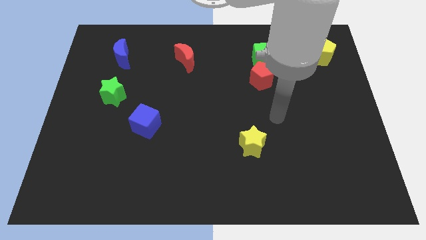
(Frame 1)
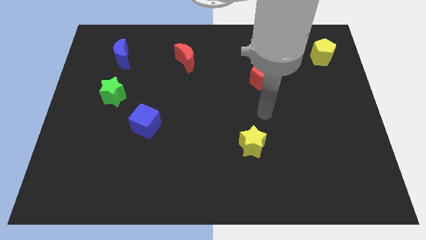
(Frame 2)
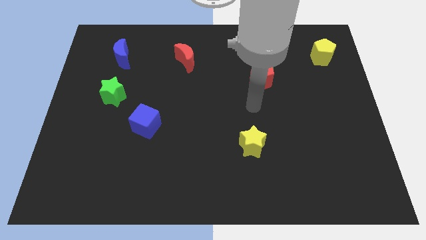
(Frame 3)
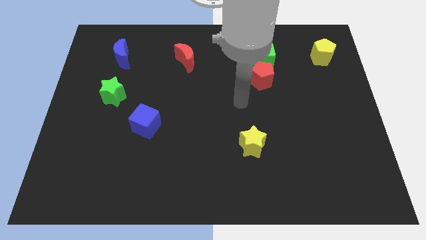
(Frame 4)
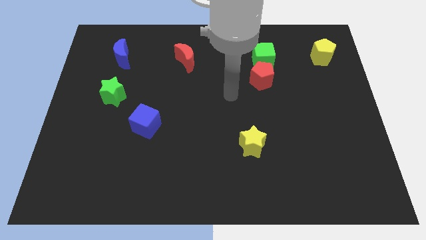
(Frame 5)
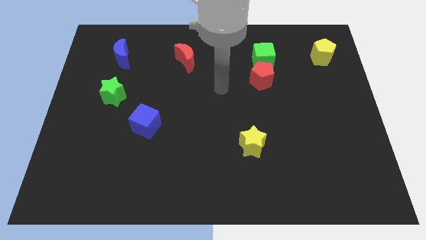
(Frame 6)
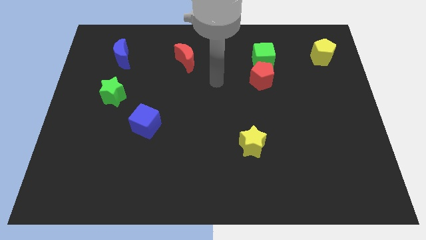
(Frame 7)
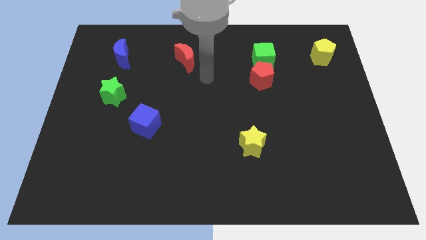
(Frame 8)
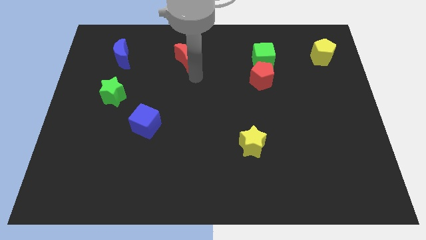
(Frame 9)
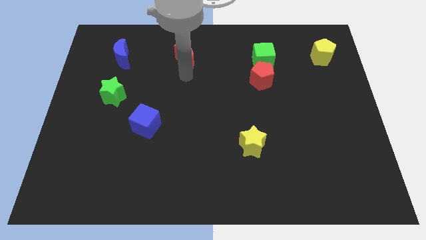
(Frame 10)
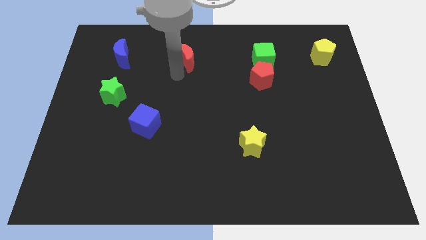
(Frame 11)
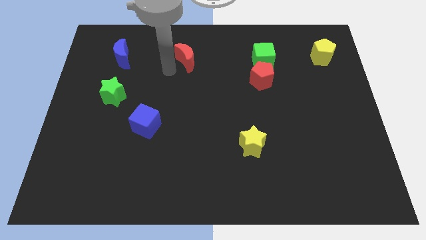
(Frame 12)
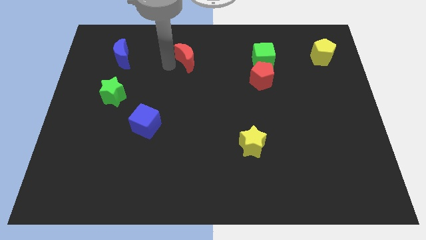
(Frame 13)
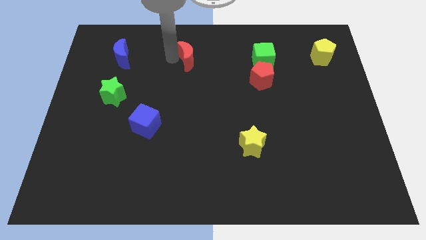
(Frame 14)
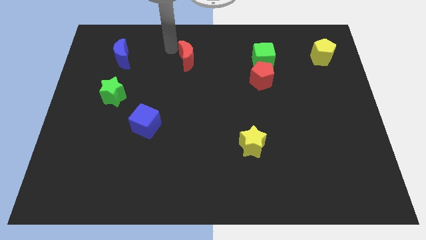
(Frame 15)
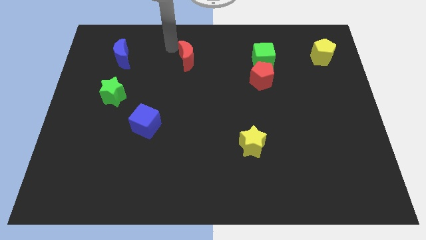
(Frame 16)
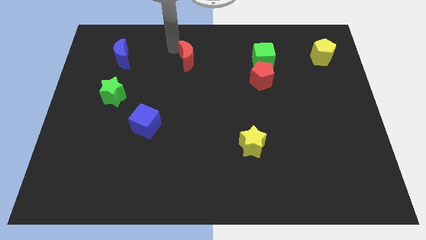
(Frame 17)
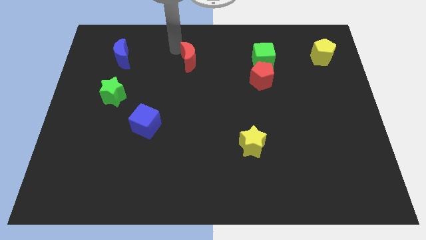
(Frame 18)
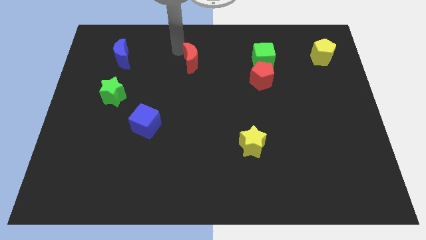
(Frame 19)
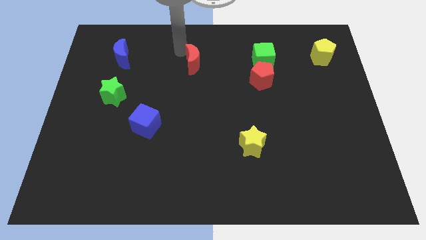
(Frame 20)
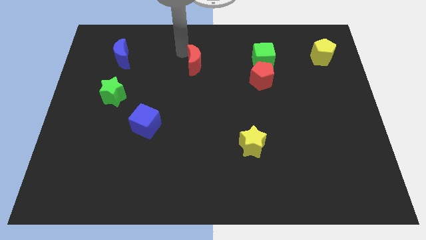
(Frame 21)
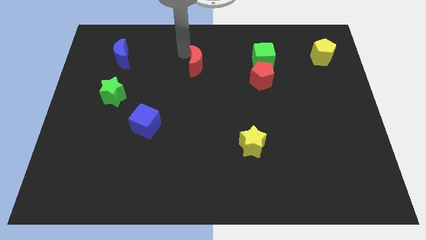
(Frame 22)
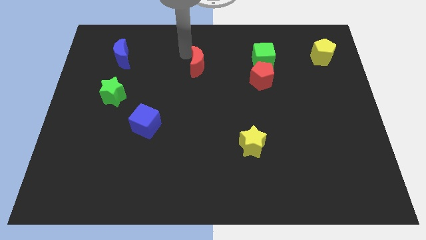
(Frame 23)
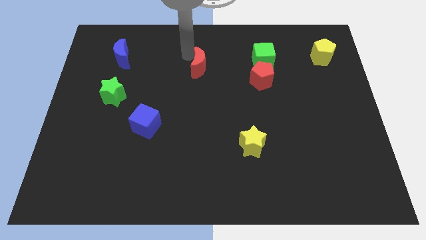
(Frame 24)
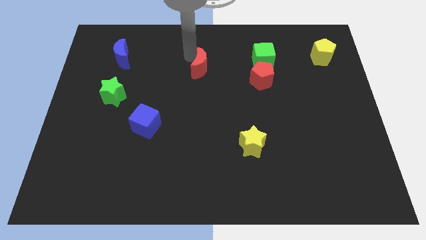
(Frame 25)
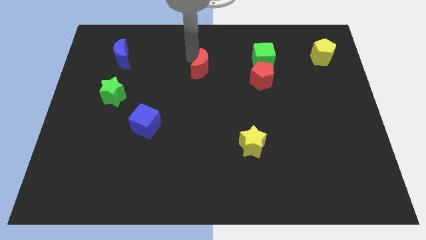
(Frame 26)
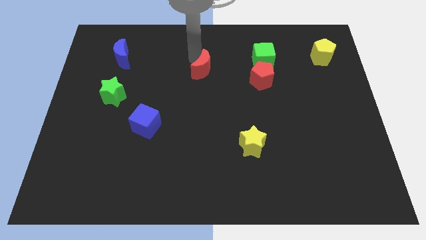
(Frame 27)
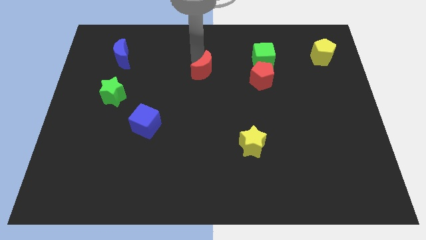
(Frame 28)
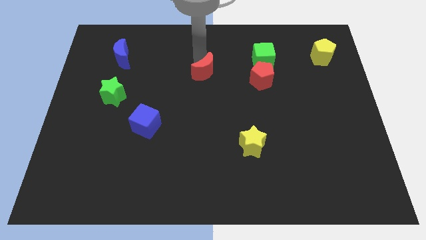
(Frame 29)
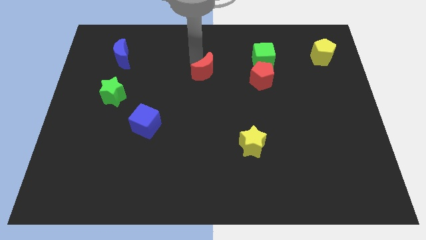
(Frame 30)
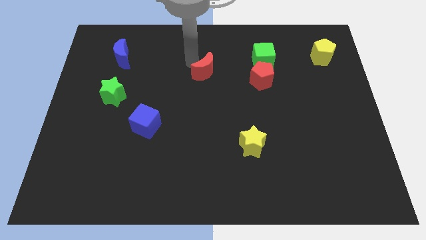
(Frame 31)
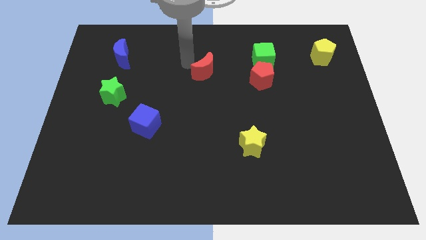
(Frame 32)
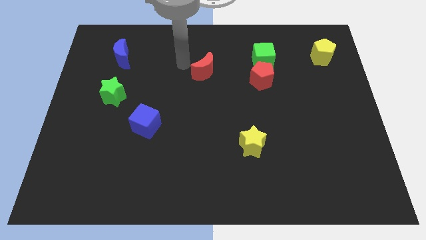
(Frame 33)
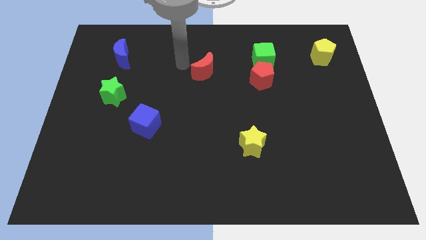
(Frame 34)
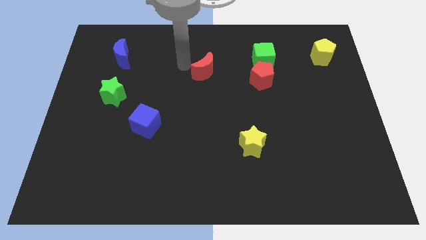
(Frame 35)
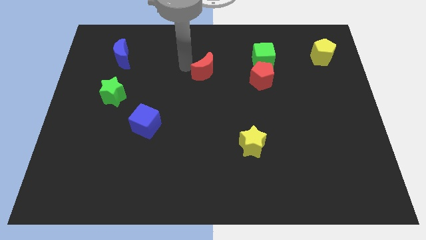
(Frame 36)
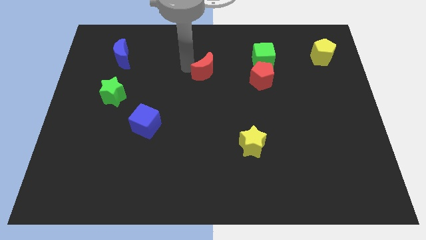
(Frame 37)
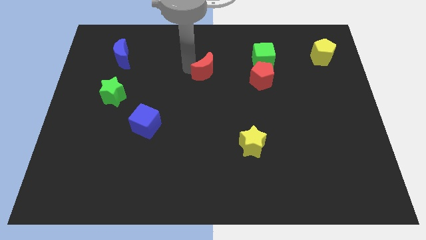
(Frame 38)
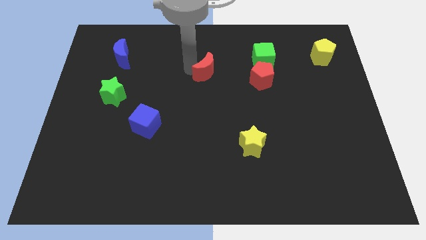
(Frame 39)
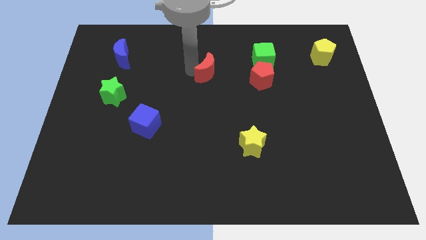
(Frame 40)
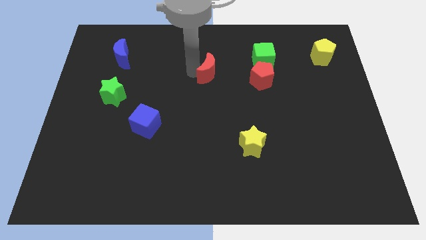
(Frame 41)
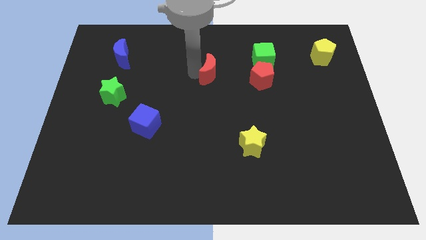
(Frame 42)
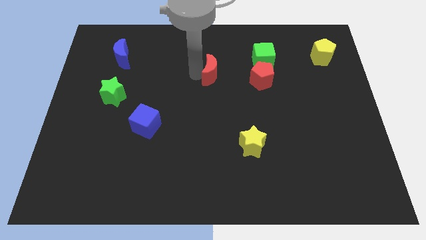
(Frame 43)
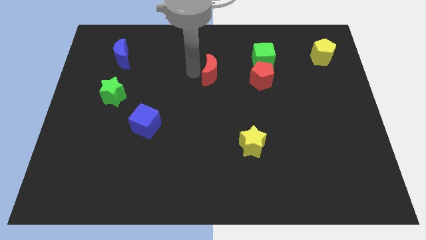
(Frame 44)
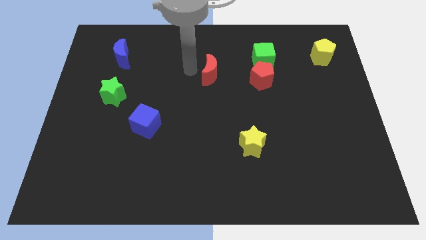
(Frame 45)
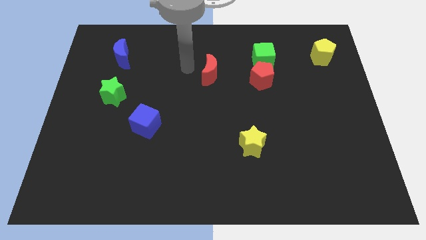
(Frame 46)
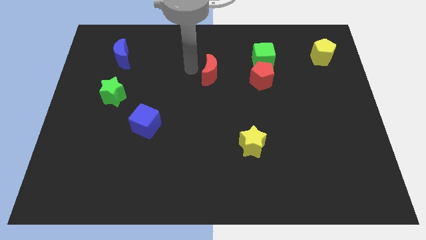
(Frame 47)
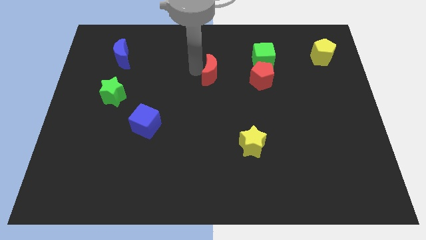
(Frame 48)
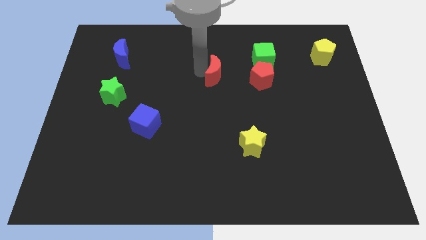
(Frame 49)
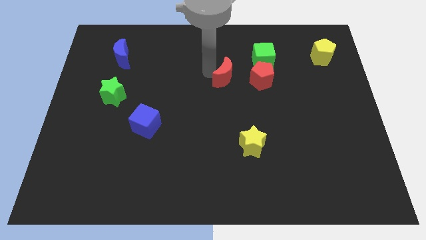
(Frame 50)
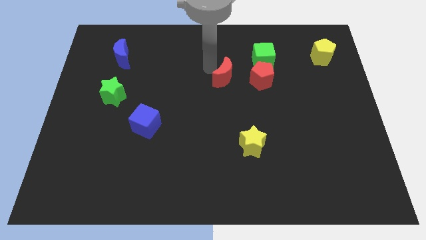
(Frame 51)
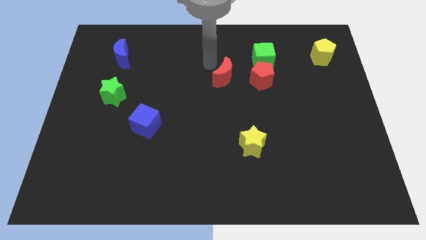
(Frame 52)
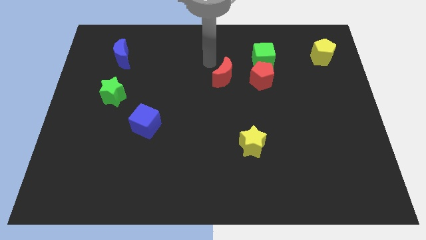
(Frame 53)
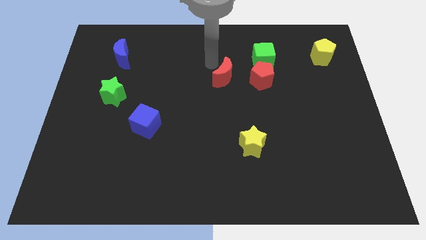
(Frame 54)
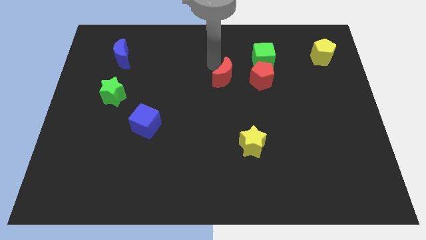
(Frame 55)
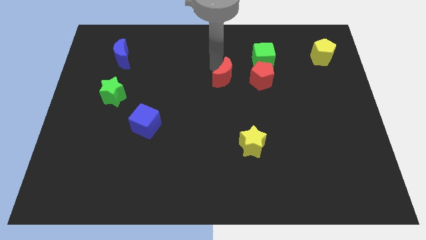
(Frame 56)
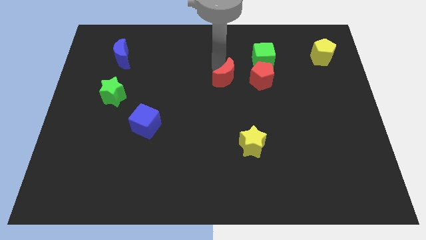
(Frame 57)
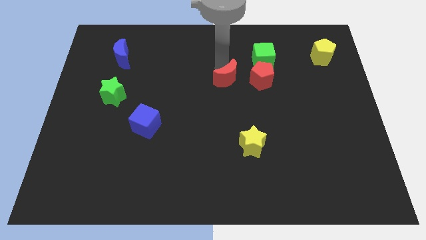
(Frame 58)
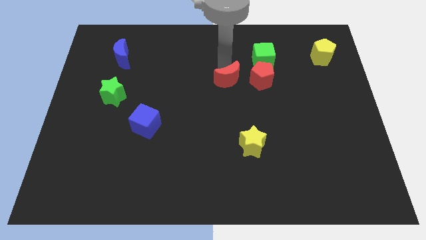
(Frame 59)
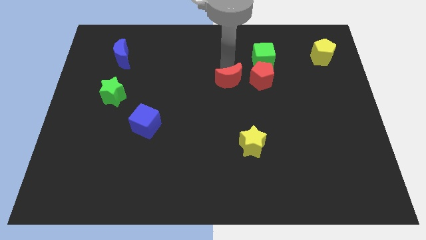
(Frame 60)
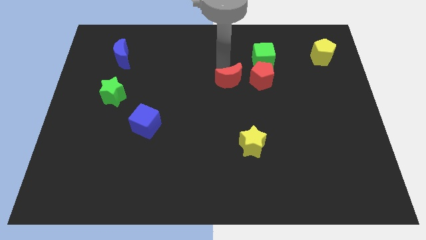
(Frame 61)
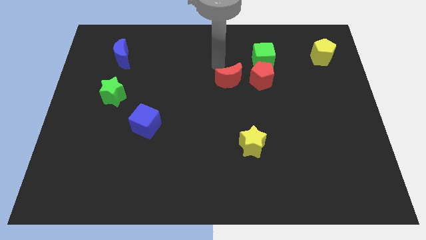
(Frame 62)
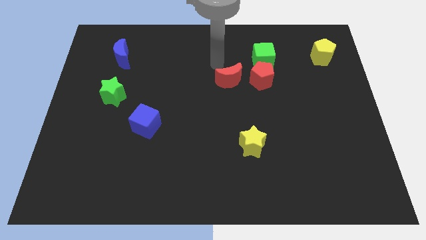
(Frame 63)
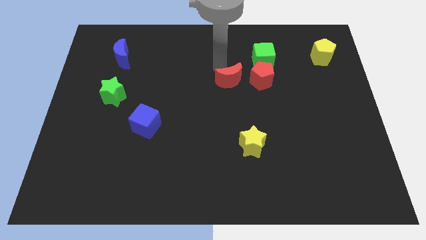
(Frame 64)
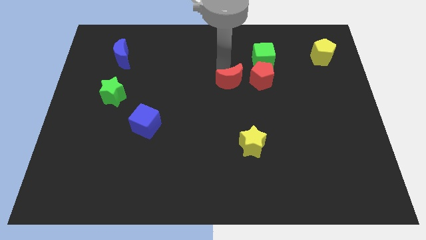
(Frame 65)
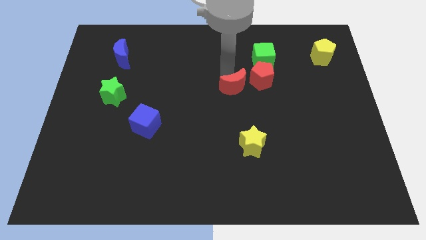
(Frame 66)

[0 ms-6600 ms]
push the red moon to the bottom left of the red pentagon

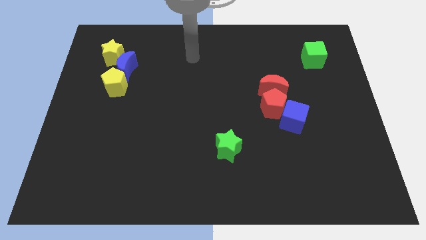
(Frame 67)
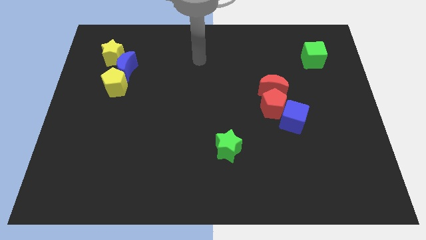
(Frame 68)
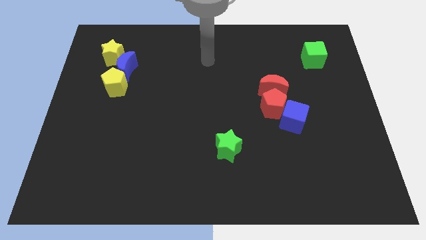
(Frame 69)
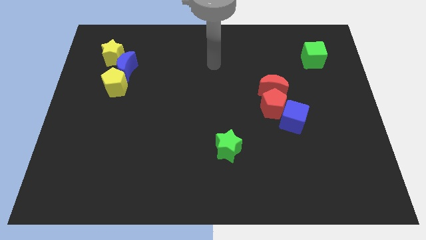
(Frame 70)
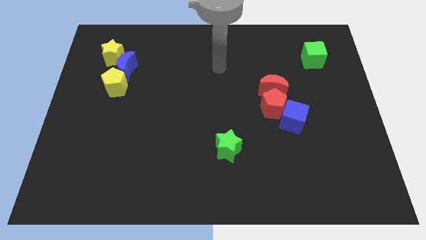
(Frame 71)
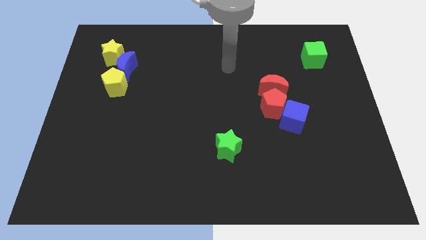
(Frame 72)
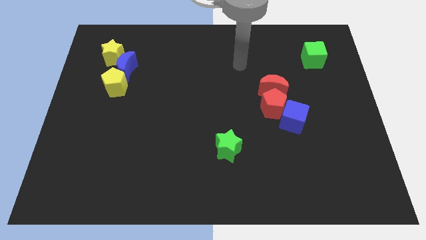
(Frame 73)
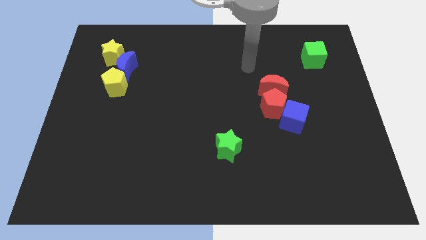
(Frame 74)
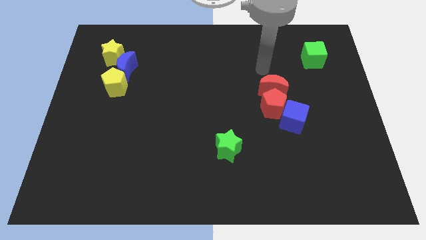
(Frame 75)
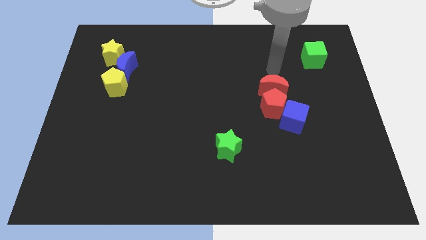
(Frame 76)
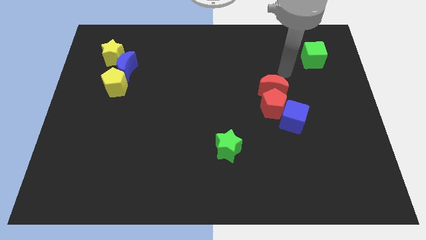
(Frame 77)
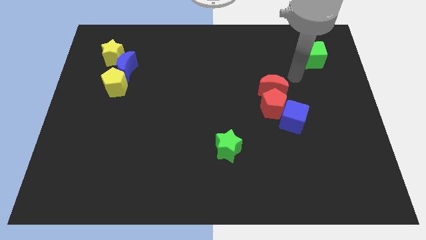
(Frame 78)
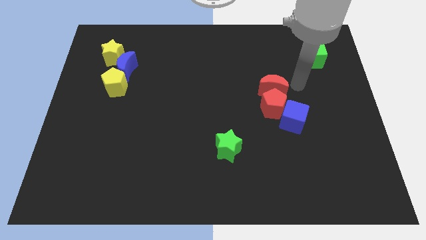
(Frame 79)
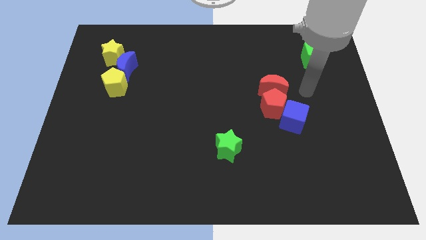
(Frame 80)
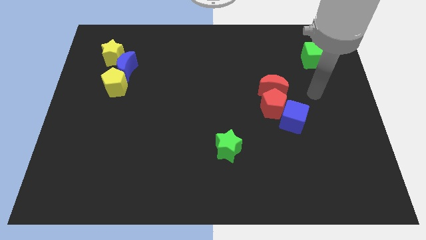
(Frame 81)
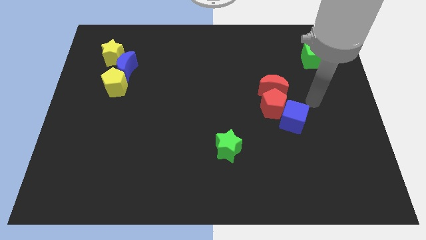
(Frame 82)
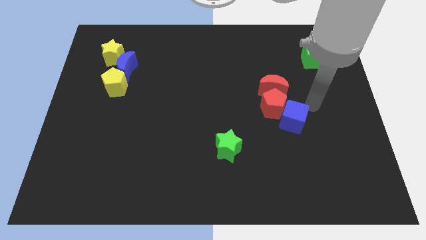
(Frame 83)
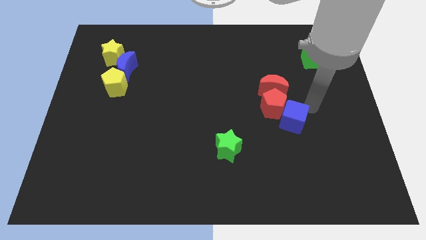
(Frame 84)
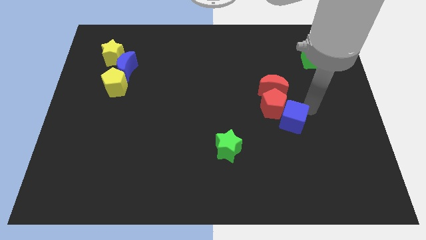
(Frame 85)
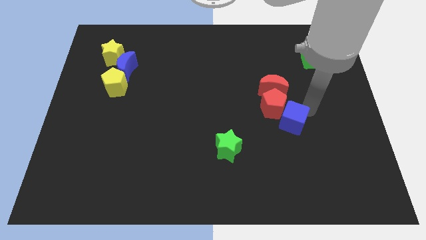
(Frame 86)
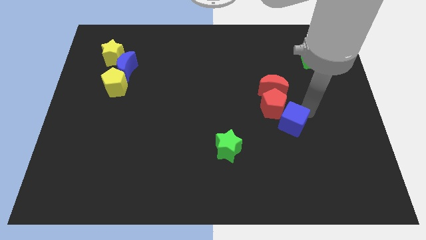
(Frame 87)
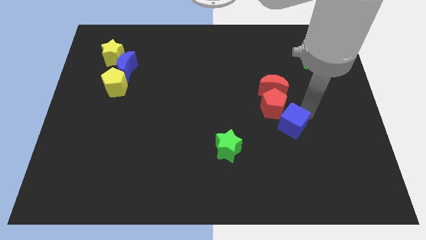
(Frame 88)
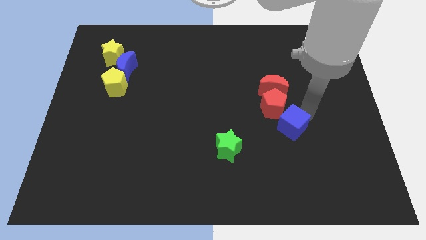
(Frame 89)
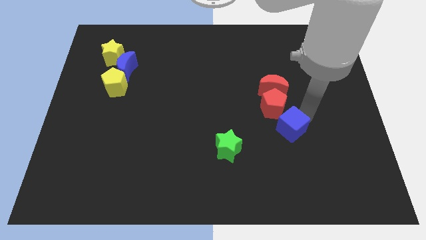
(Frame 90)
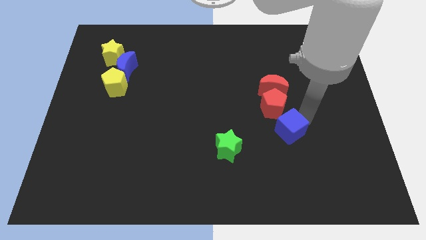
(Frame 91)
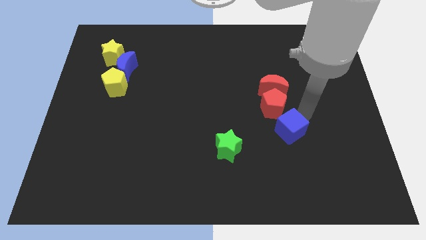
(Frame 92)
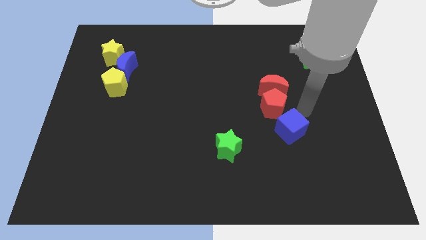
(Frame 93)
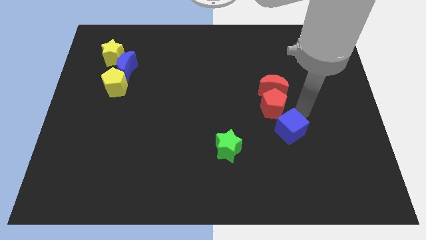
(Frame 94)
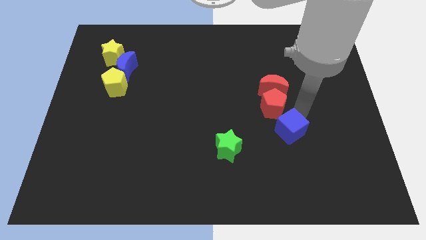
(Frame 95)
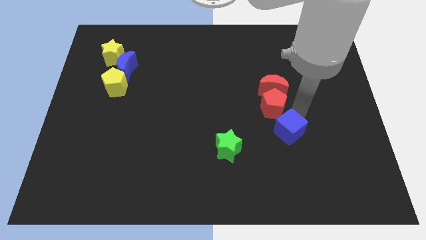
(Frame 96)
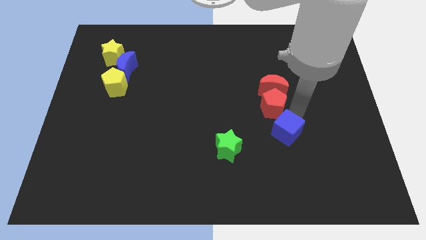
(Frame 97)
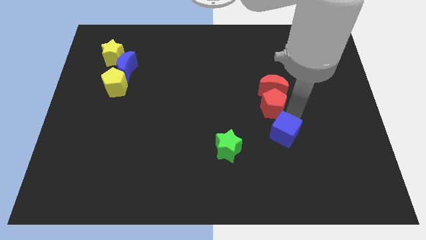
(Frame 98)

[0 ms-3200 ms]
slide the blue cube right of the green star
